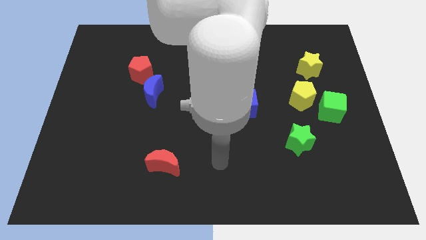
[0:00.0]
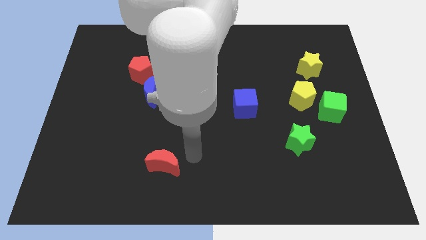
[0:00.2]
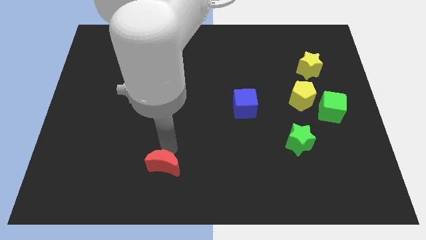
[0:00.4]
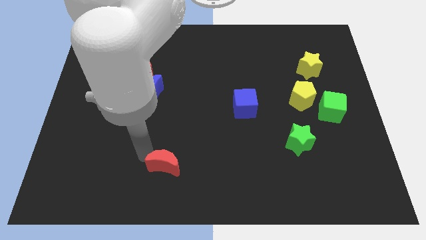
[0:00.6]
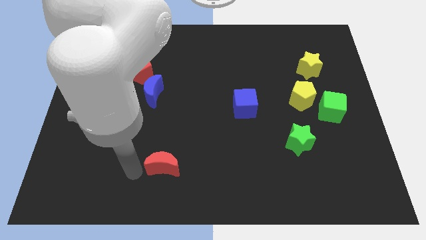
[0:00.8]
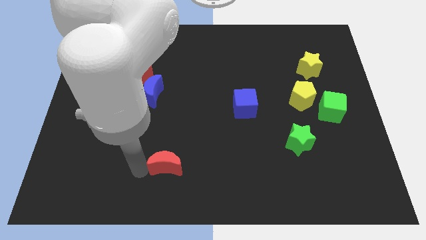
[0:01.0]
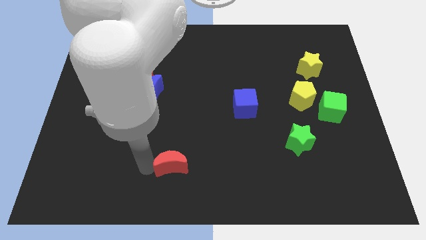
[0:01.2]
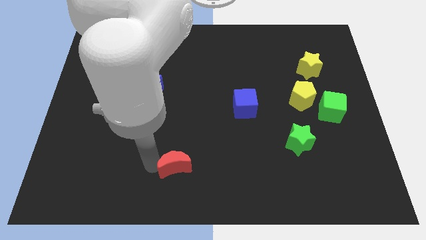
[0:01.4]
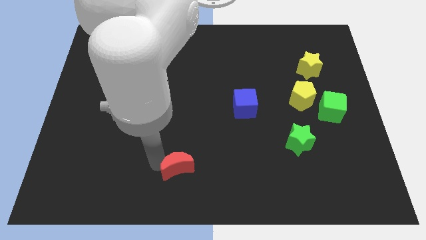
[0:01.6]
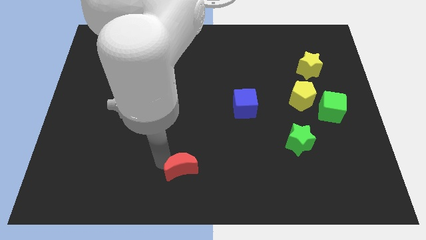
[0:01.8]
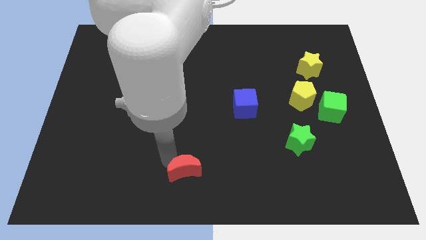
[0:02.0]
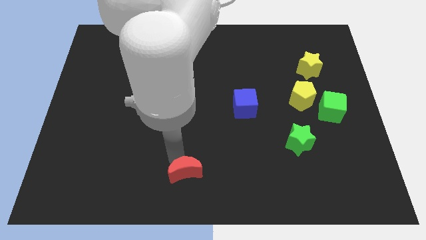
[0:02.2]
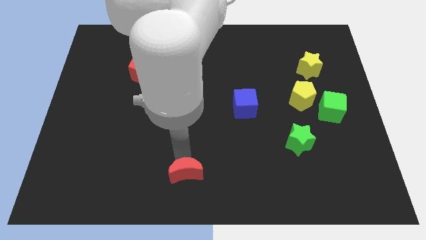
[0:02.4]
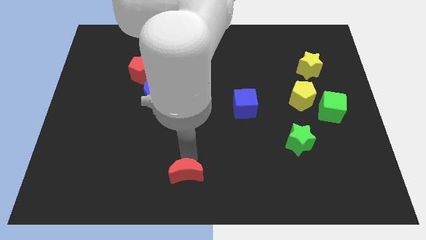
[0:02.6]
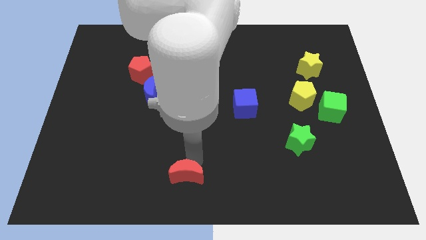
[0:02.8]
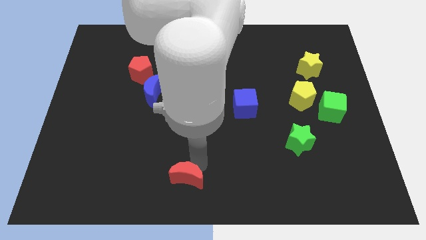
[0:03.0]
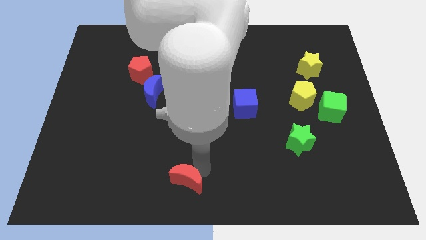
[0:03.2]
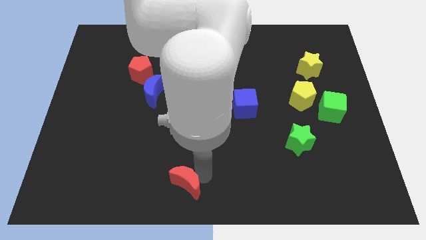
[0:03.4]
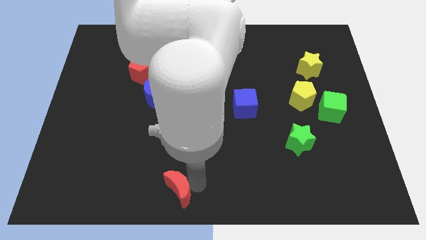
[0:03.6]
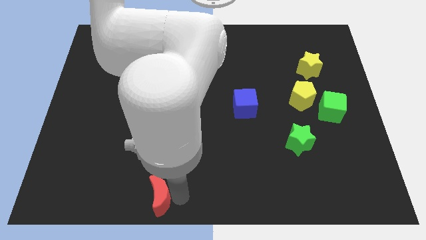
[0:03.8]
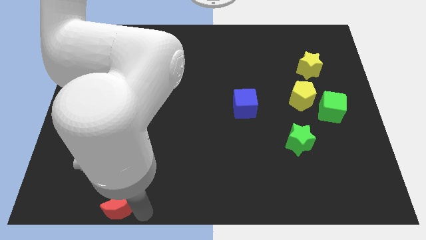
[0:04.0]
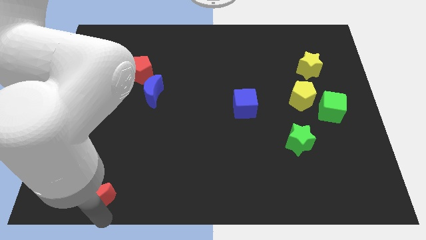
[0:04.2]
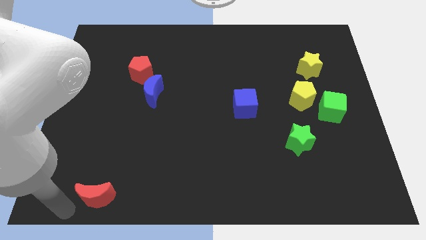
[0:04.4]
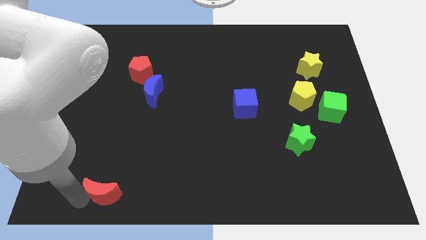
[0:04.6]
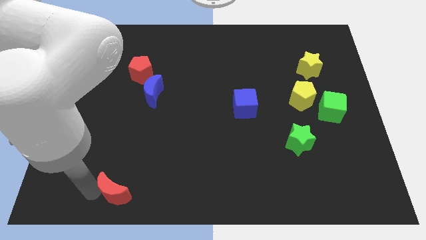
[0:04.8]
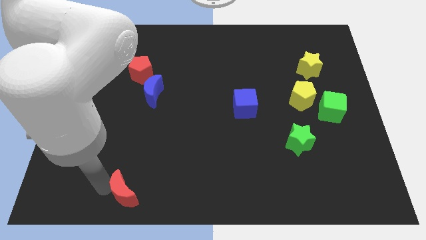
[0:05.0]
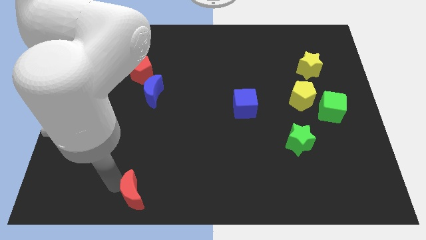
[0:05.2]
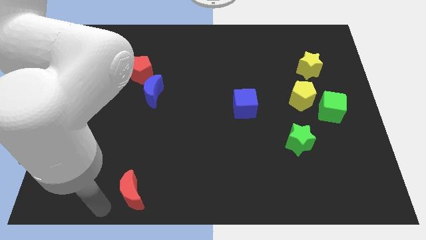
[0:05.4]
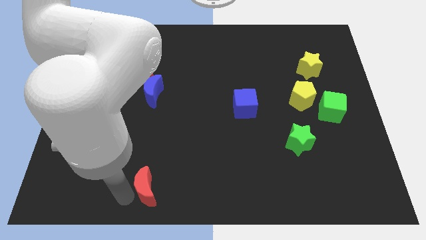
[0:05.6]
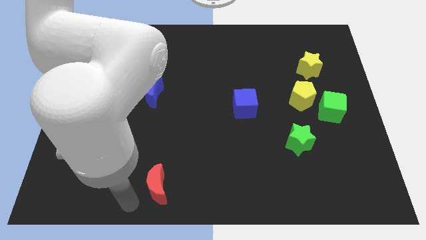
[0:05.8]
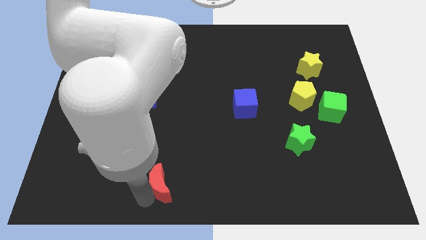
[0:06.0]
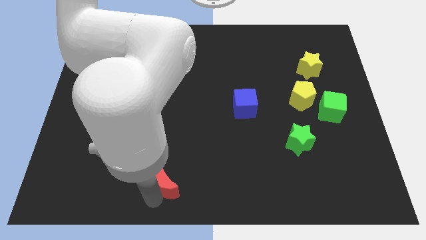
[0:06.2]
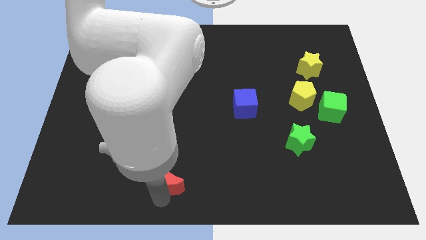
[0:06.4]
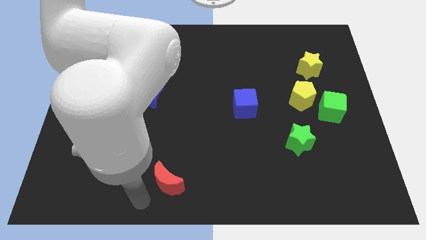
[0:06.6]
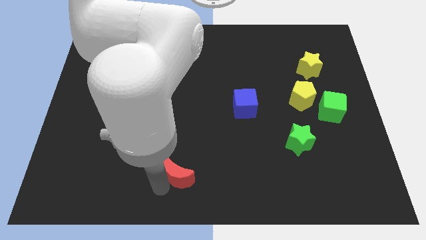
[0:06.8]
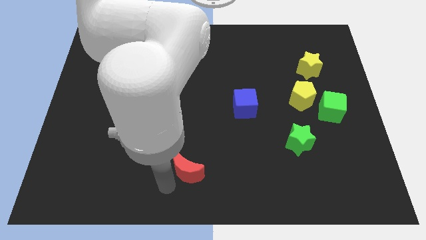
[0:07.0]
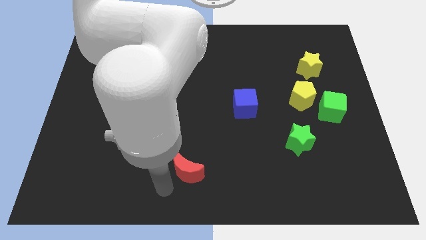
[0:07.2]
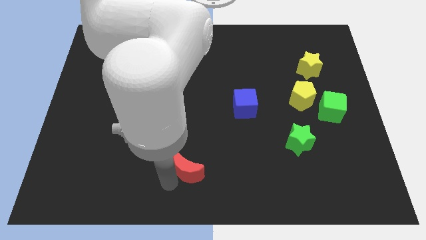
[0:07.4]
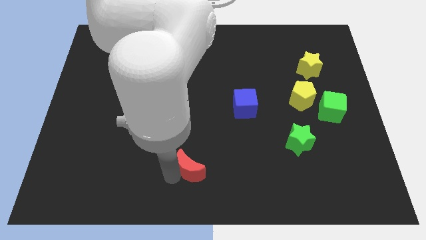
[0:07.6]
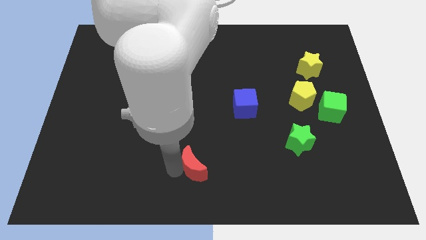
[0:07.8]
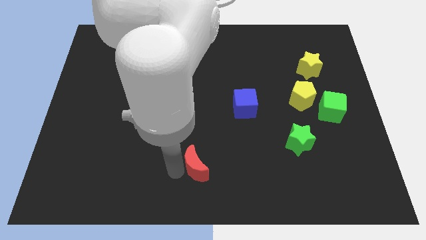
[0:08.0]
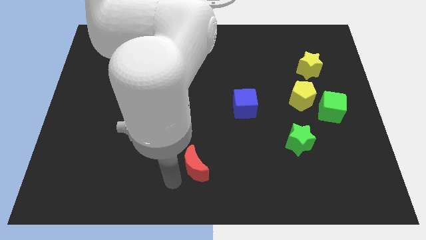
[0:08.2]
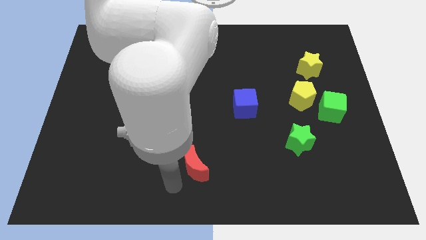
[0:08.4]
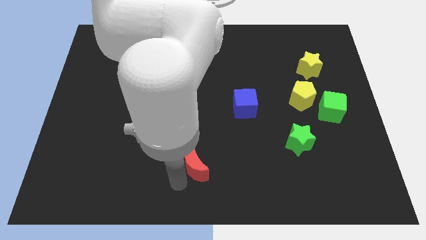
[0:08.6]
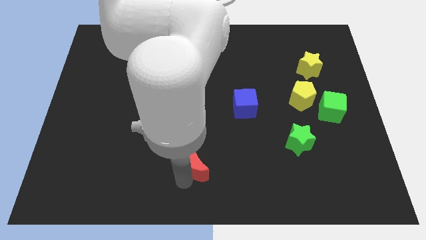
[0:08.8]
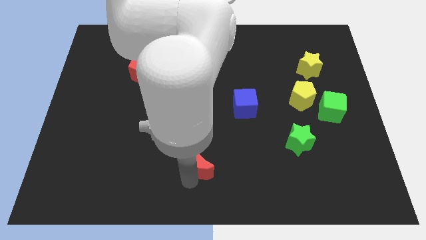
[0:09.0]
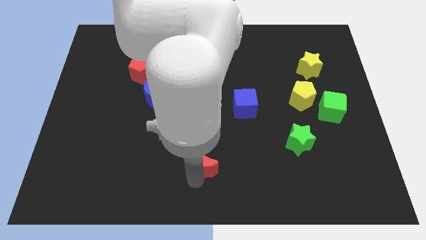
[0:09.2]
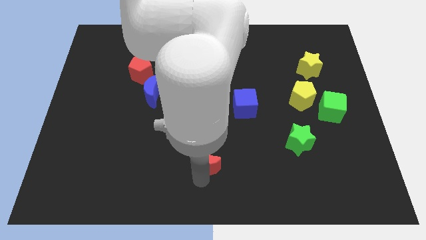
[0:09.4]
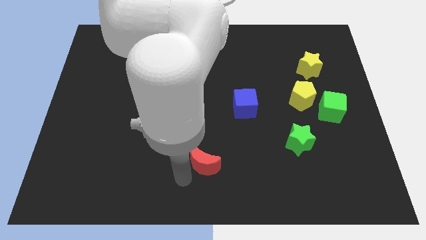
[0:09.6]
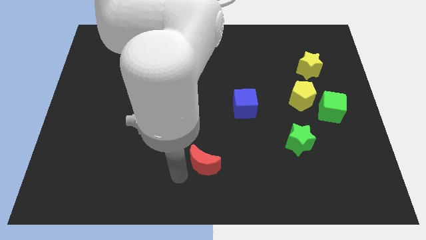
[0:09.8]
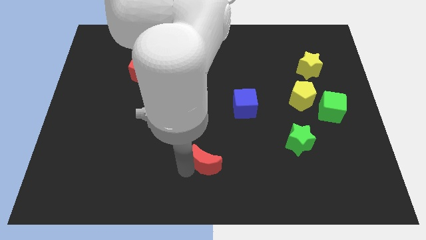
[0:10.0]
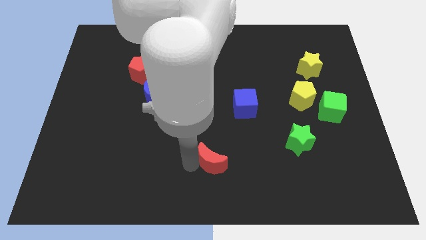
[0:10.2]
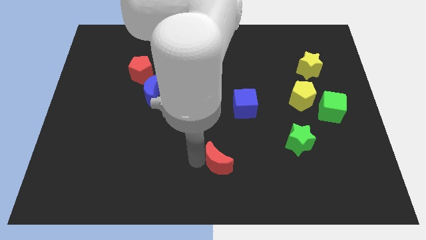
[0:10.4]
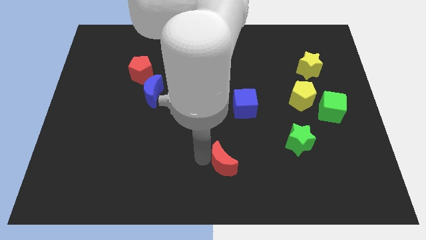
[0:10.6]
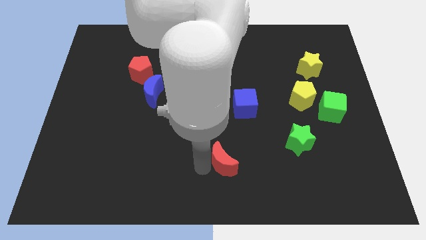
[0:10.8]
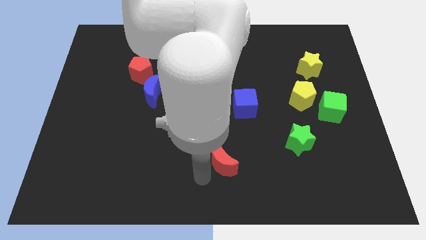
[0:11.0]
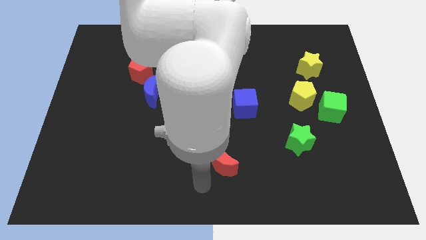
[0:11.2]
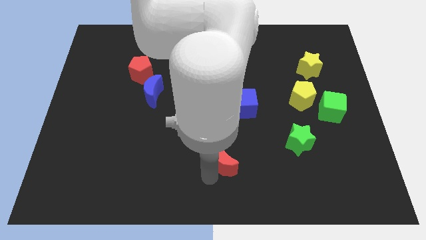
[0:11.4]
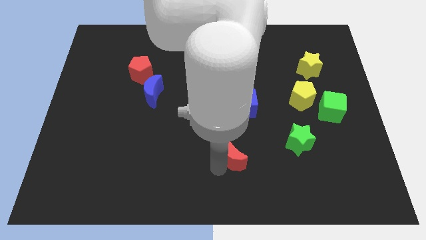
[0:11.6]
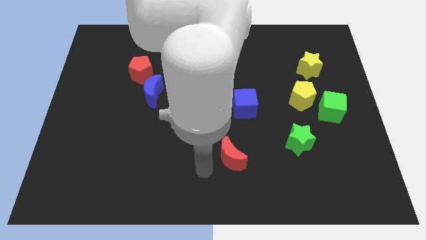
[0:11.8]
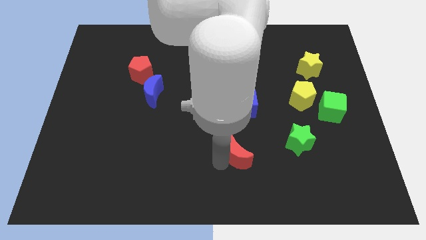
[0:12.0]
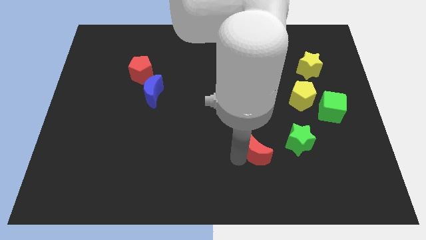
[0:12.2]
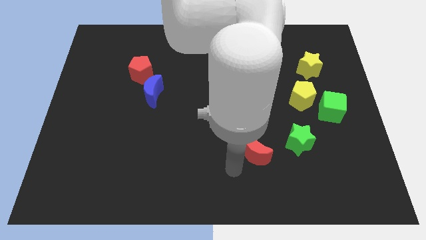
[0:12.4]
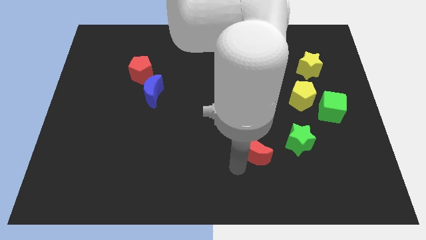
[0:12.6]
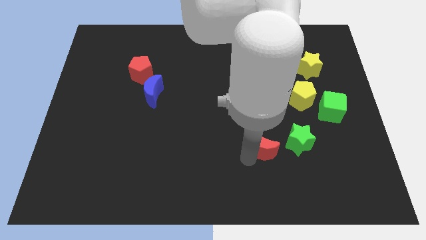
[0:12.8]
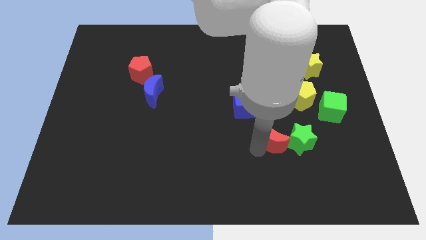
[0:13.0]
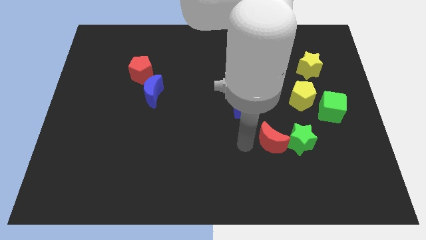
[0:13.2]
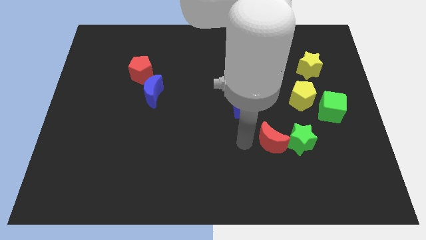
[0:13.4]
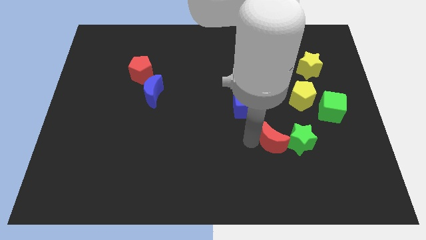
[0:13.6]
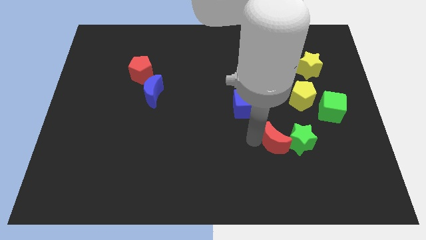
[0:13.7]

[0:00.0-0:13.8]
put the red moon close to the green star
